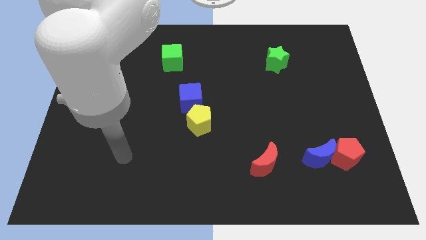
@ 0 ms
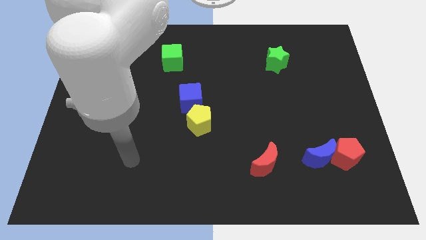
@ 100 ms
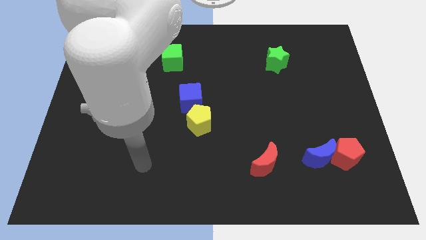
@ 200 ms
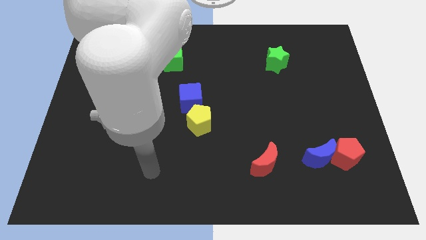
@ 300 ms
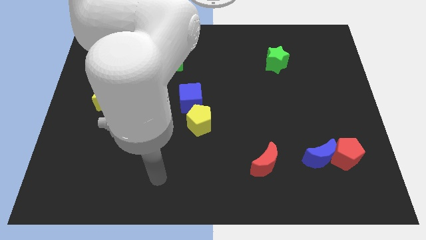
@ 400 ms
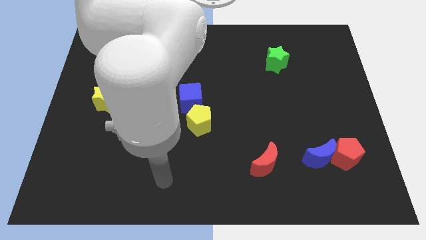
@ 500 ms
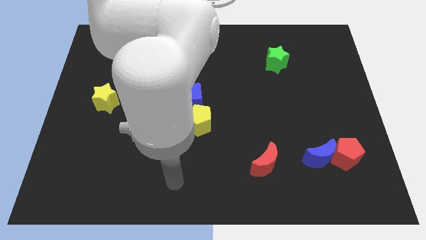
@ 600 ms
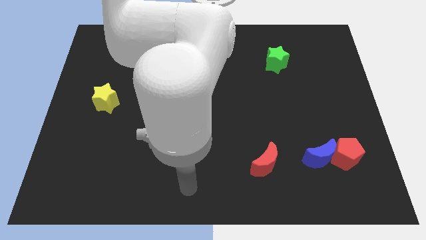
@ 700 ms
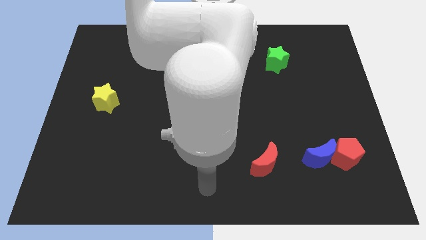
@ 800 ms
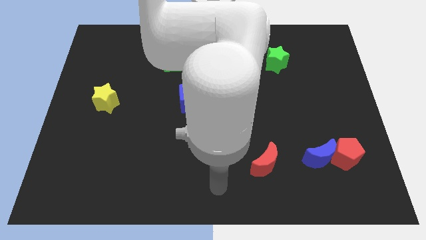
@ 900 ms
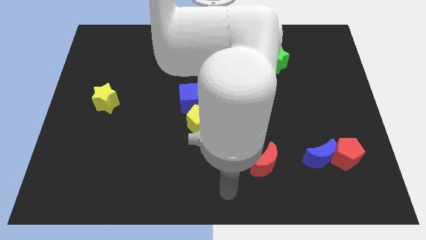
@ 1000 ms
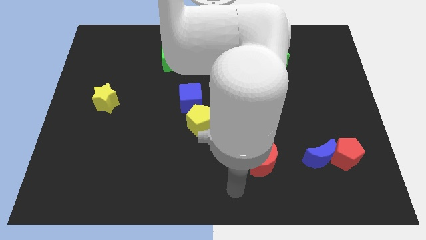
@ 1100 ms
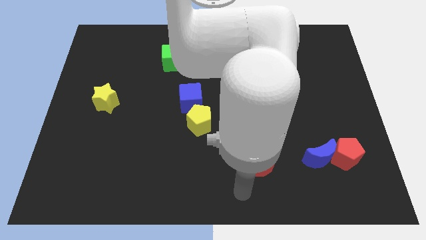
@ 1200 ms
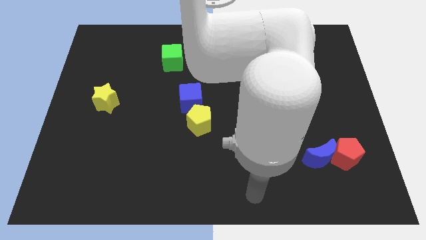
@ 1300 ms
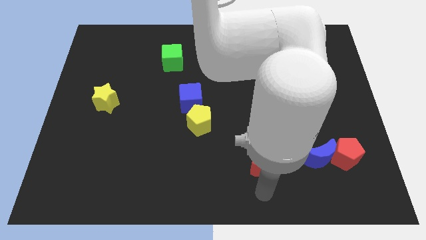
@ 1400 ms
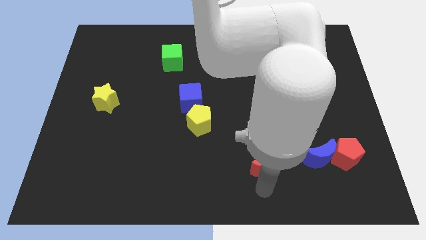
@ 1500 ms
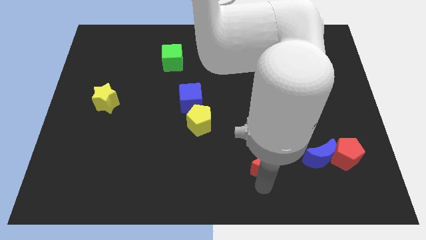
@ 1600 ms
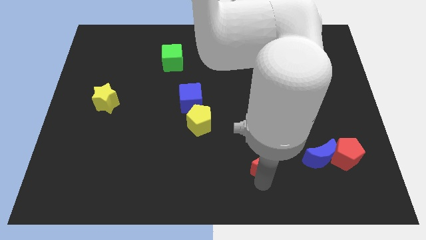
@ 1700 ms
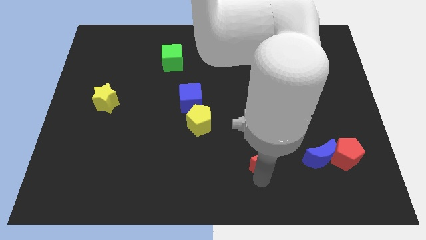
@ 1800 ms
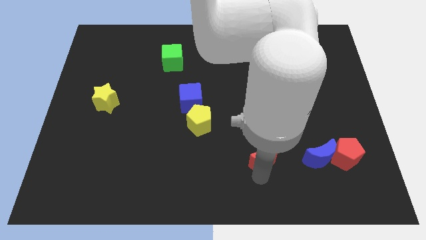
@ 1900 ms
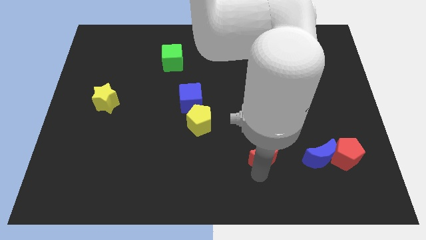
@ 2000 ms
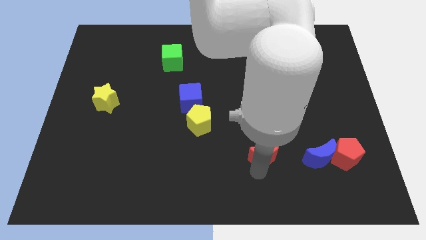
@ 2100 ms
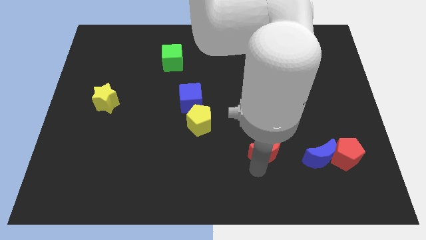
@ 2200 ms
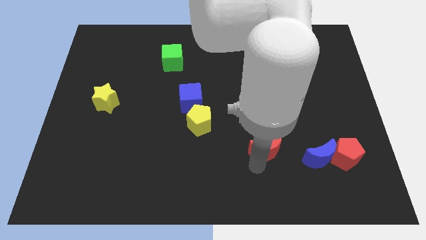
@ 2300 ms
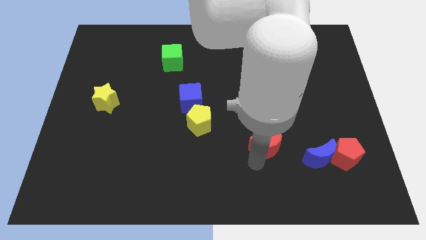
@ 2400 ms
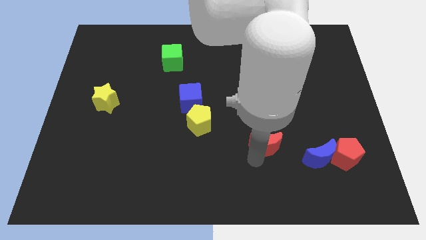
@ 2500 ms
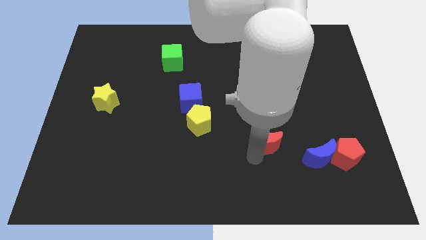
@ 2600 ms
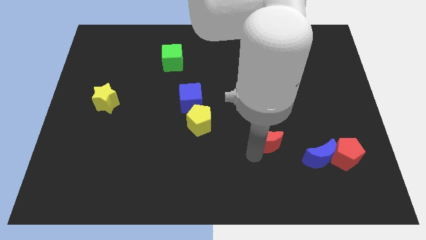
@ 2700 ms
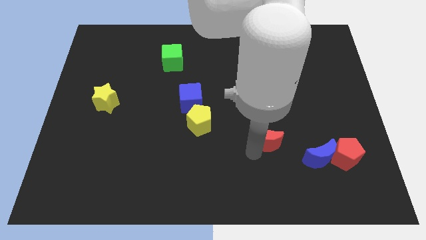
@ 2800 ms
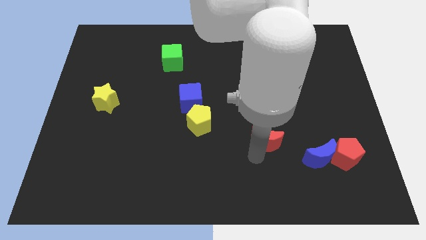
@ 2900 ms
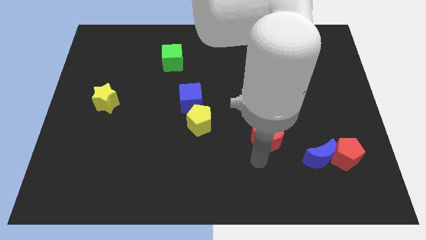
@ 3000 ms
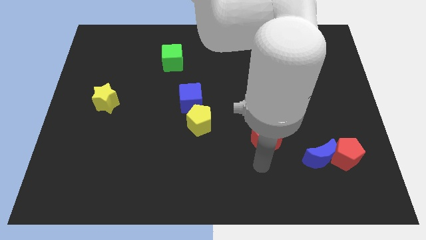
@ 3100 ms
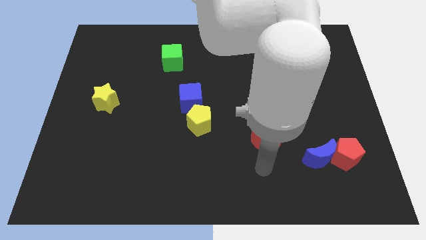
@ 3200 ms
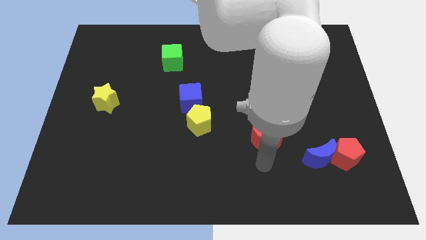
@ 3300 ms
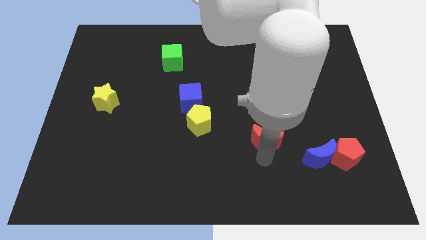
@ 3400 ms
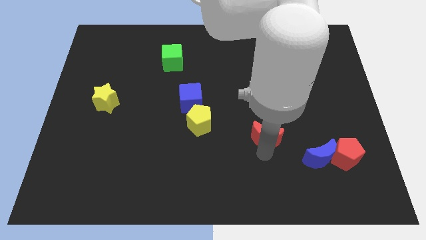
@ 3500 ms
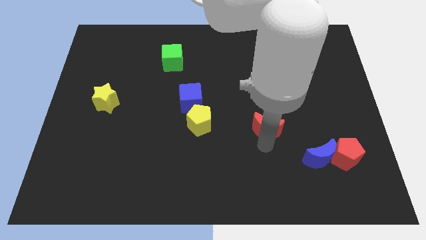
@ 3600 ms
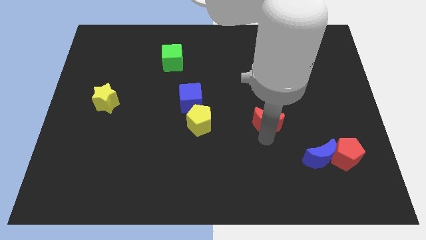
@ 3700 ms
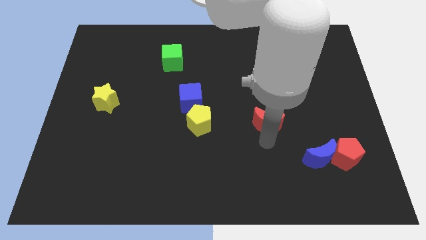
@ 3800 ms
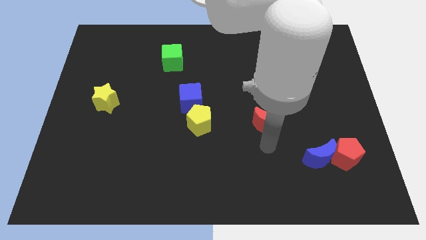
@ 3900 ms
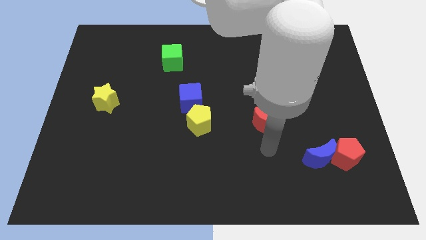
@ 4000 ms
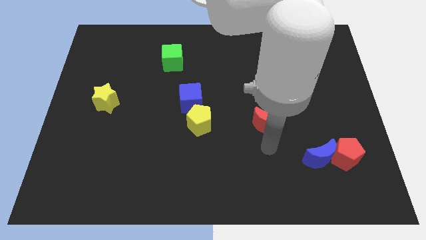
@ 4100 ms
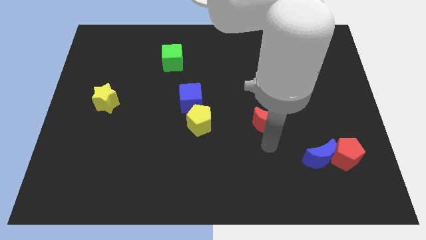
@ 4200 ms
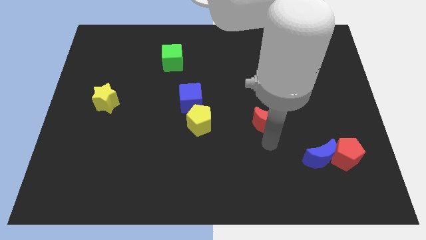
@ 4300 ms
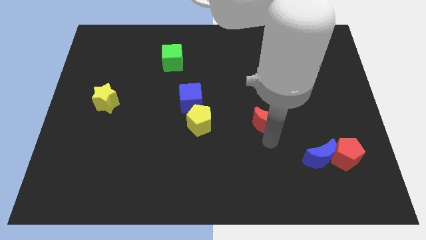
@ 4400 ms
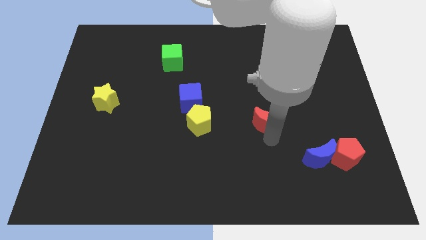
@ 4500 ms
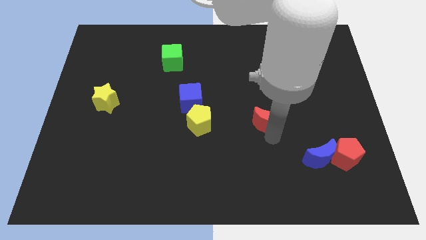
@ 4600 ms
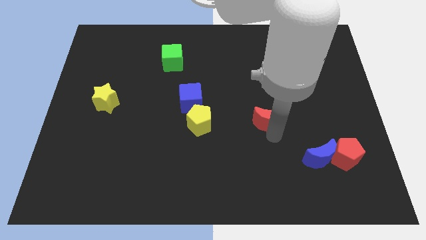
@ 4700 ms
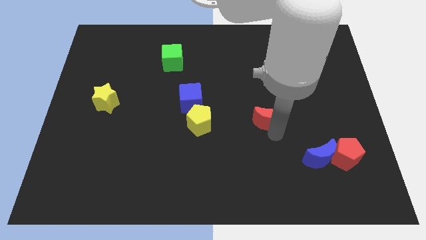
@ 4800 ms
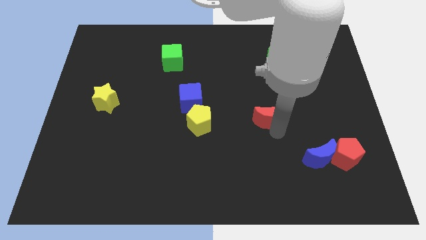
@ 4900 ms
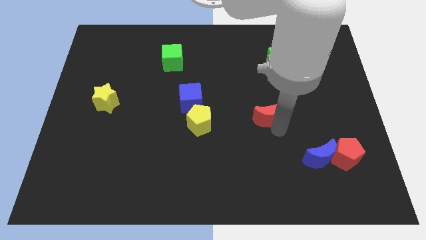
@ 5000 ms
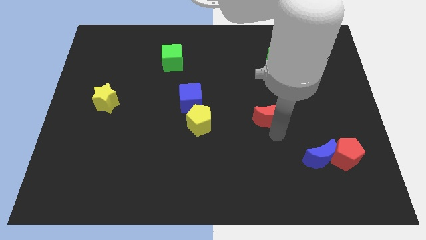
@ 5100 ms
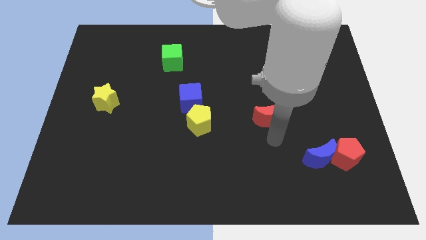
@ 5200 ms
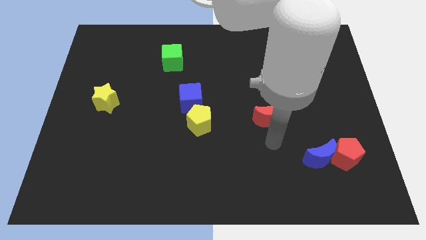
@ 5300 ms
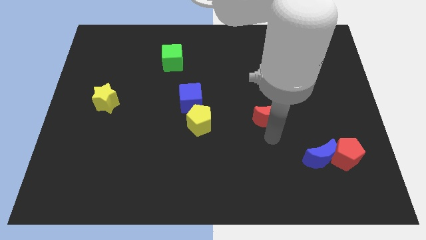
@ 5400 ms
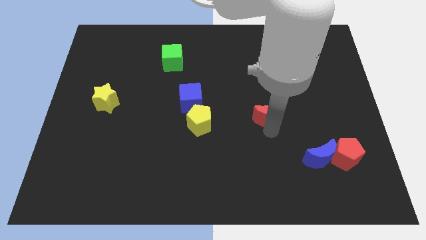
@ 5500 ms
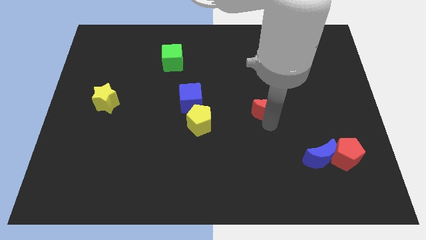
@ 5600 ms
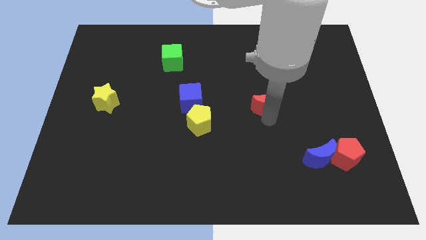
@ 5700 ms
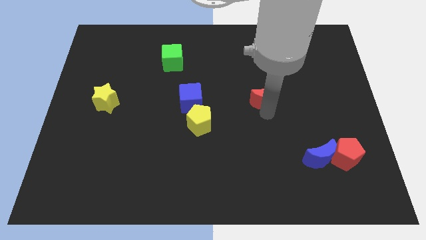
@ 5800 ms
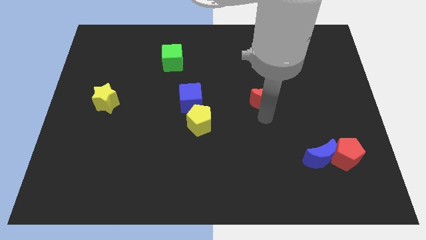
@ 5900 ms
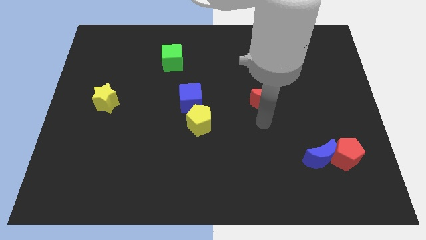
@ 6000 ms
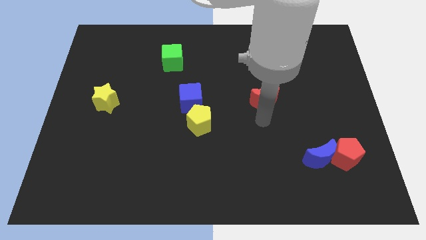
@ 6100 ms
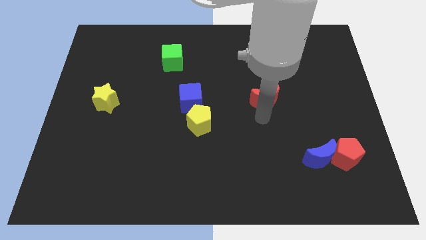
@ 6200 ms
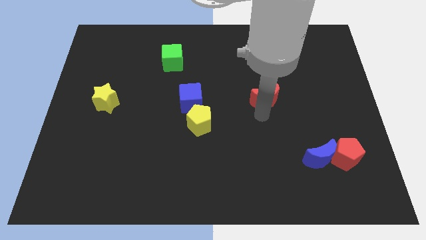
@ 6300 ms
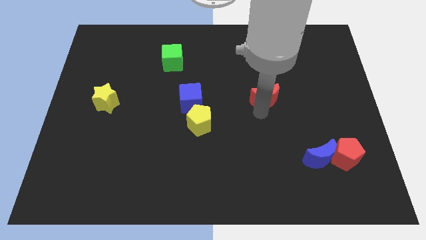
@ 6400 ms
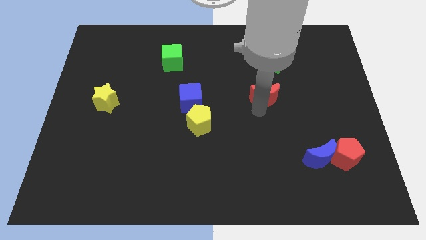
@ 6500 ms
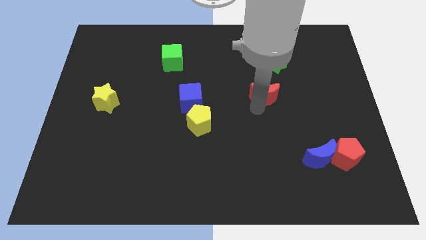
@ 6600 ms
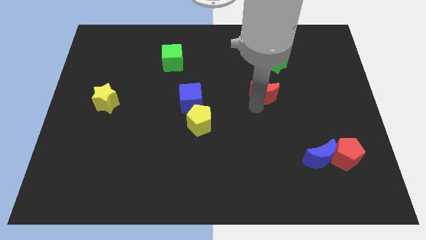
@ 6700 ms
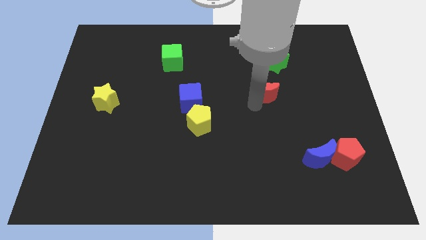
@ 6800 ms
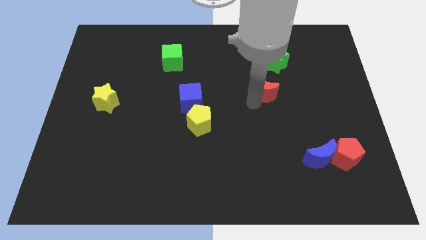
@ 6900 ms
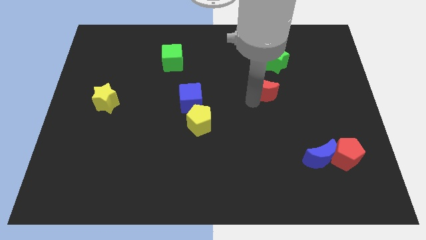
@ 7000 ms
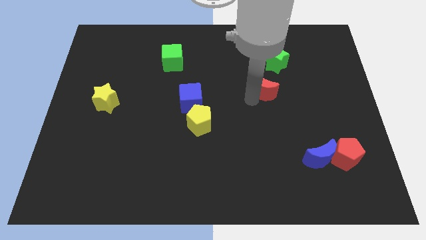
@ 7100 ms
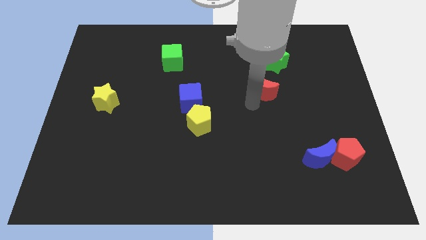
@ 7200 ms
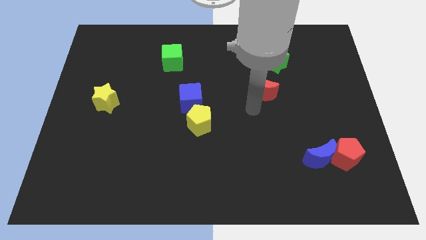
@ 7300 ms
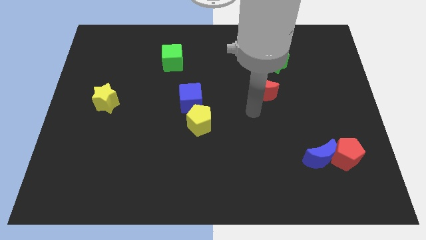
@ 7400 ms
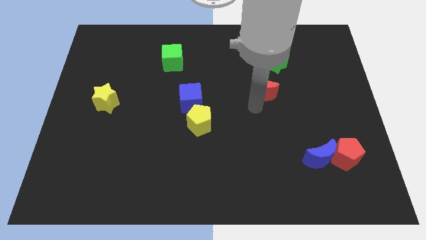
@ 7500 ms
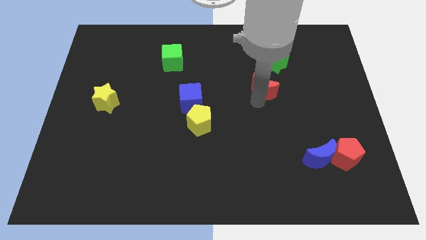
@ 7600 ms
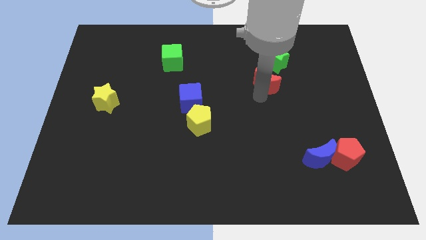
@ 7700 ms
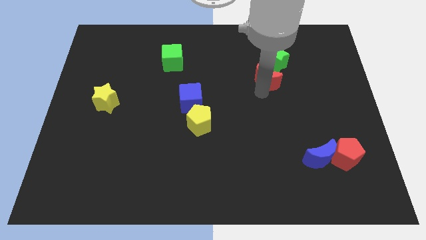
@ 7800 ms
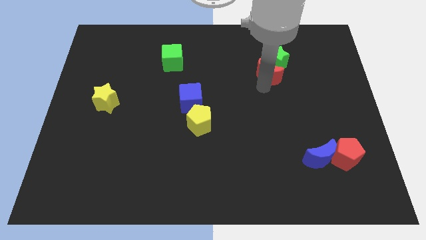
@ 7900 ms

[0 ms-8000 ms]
move the red moon close to the green star
